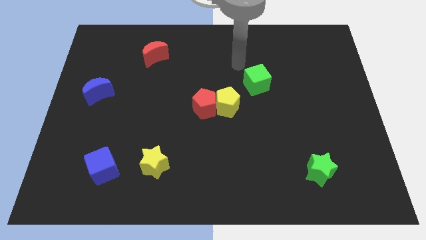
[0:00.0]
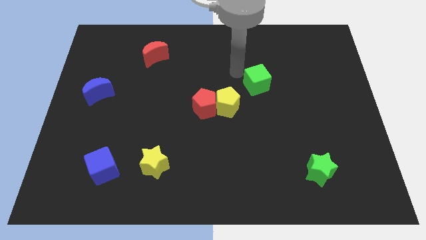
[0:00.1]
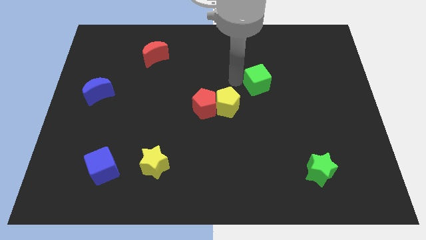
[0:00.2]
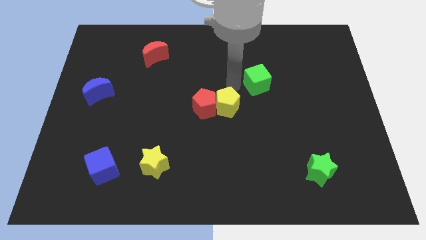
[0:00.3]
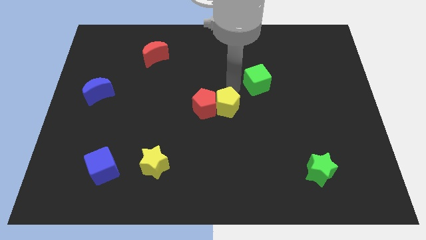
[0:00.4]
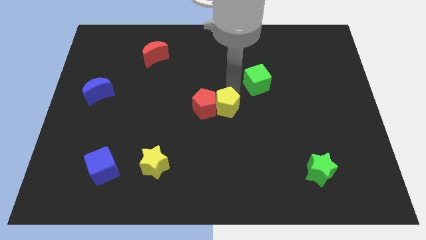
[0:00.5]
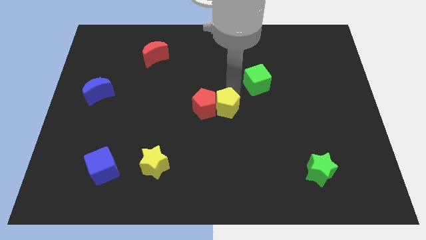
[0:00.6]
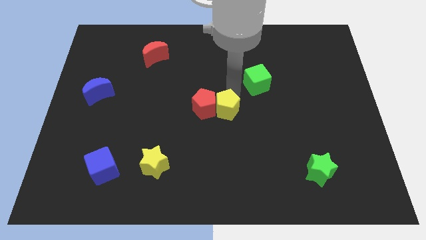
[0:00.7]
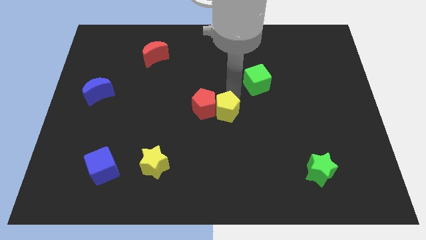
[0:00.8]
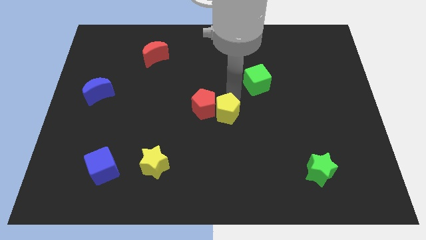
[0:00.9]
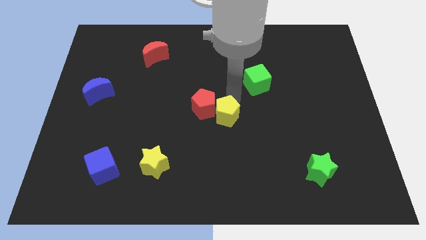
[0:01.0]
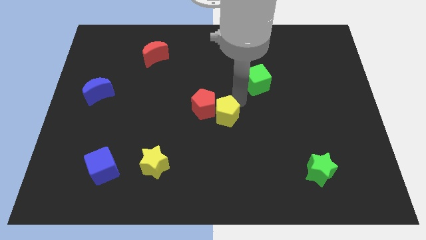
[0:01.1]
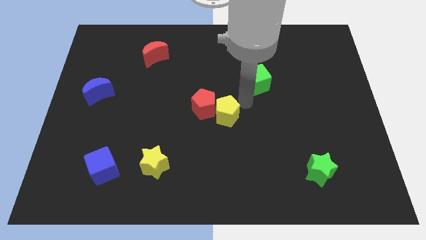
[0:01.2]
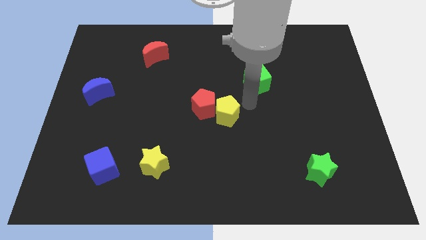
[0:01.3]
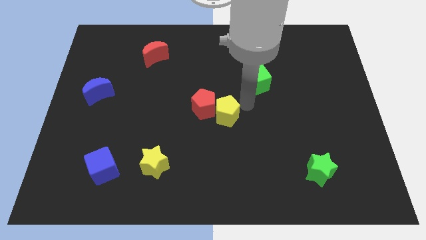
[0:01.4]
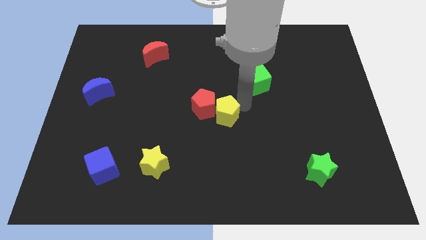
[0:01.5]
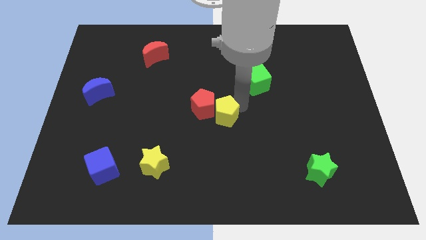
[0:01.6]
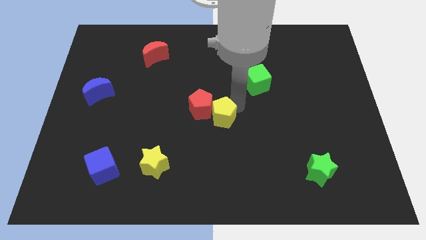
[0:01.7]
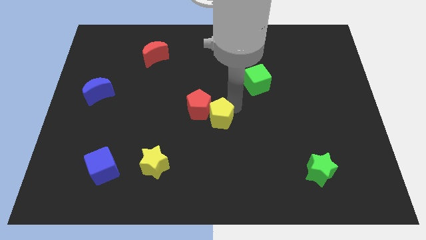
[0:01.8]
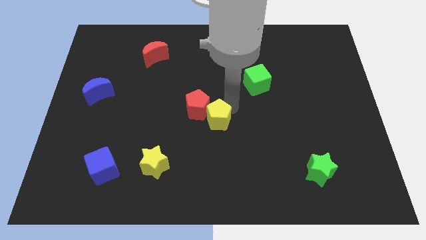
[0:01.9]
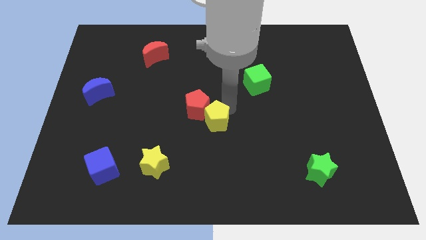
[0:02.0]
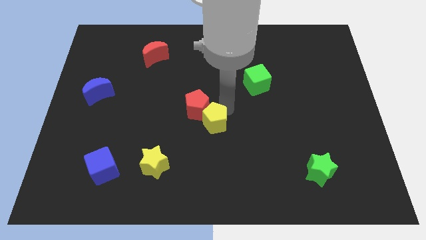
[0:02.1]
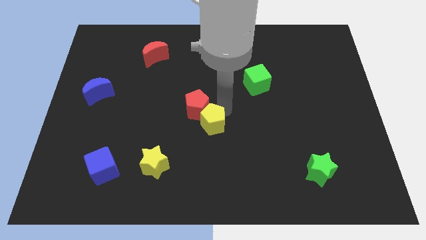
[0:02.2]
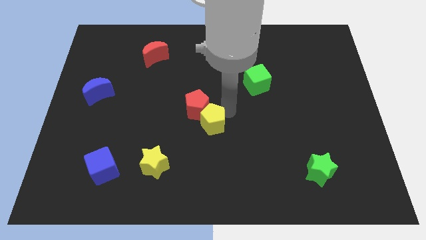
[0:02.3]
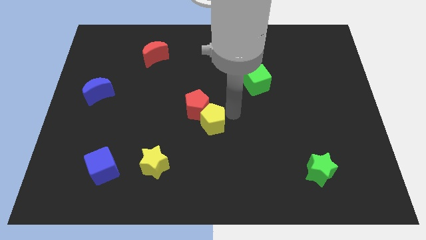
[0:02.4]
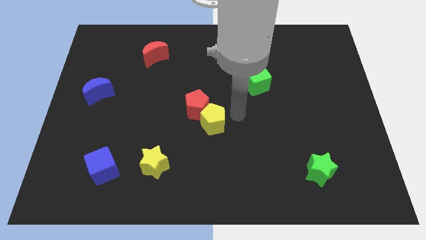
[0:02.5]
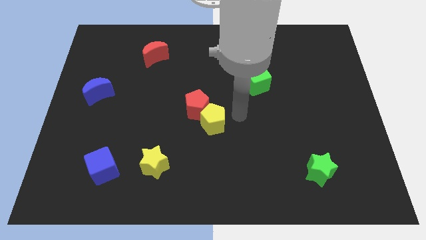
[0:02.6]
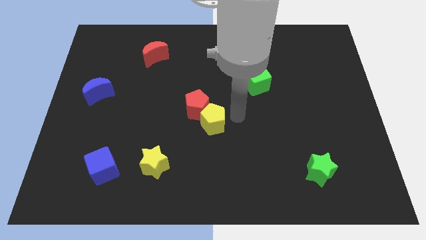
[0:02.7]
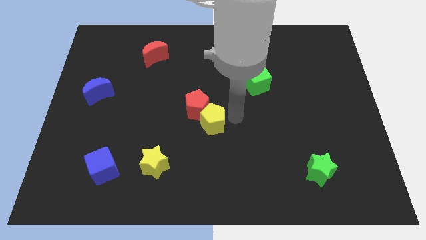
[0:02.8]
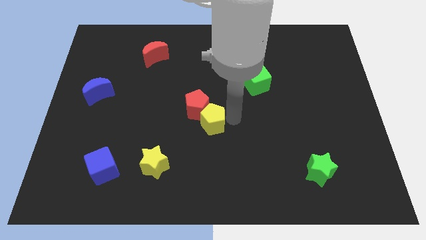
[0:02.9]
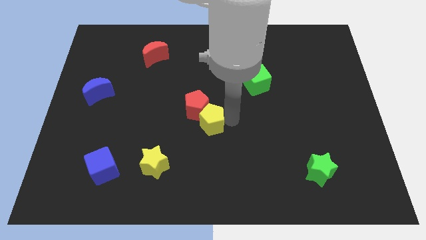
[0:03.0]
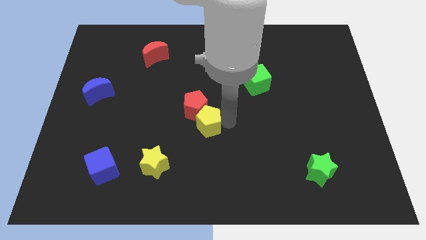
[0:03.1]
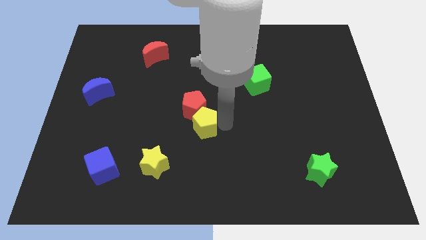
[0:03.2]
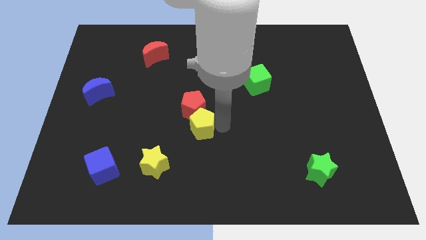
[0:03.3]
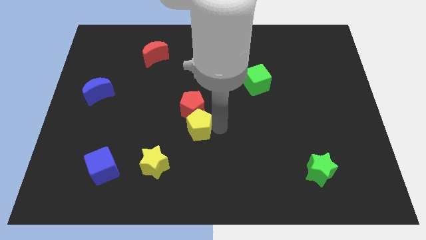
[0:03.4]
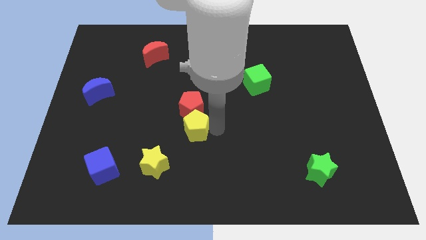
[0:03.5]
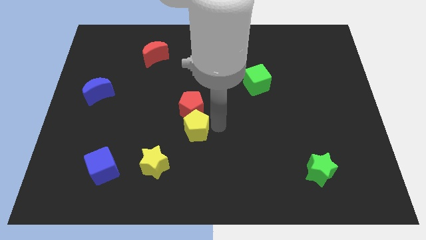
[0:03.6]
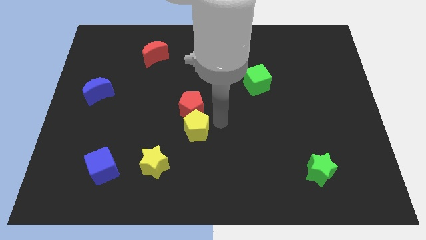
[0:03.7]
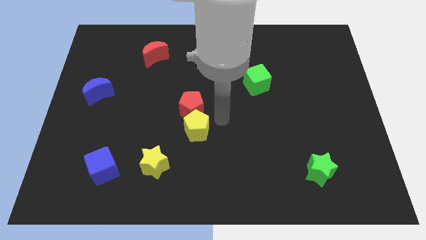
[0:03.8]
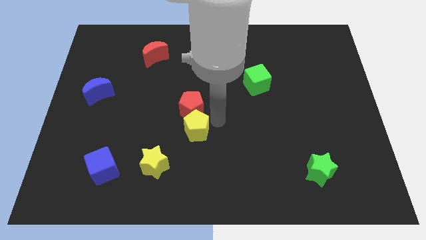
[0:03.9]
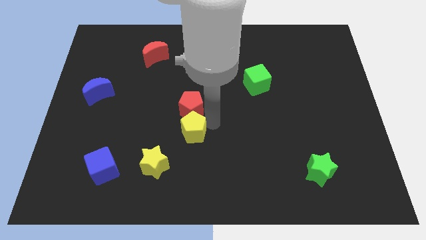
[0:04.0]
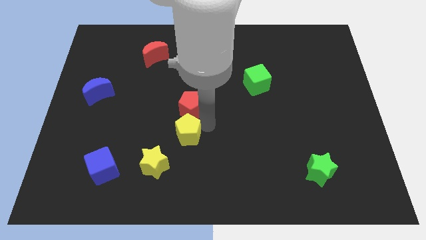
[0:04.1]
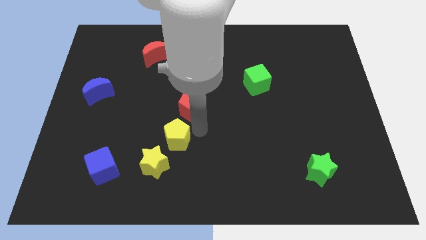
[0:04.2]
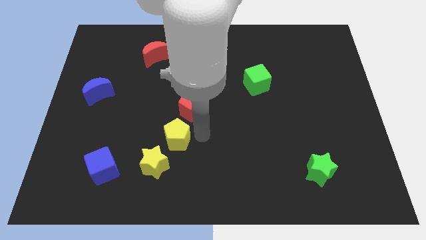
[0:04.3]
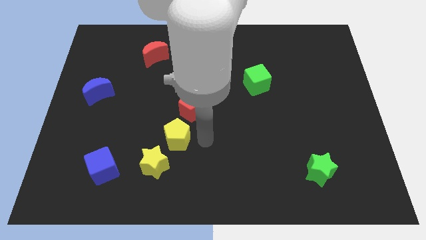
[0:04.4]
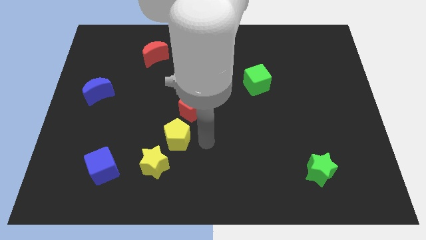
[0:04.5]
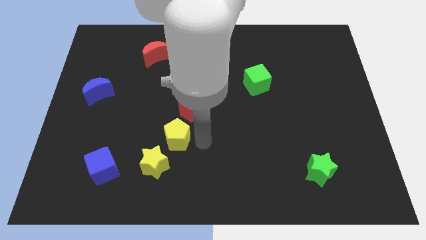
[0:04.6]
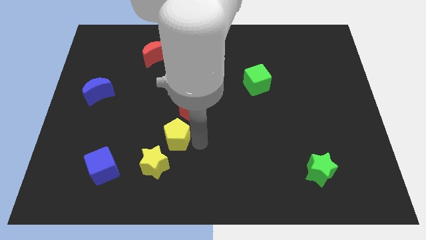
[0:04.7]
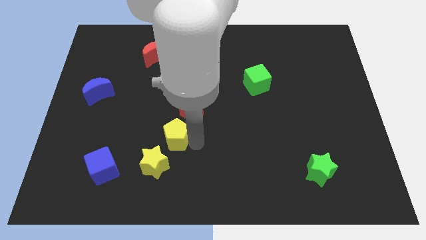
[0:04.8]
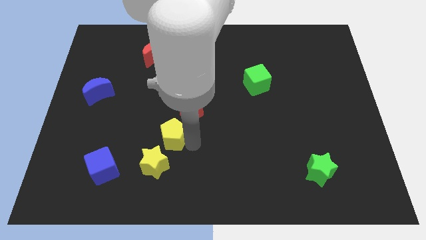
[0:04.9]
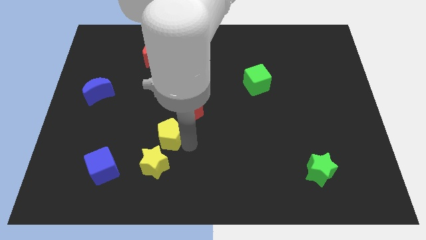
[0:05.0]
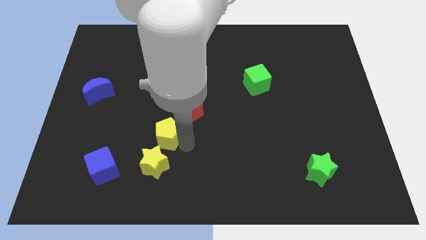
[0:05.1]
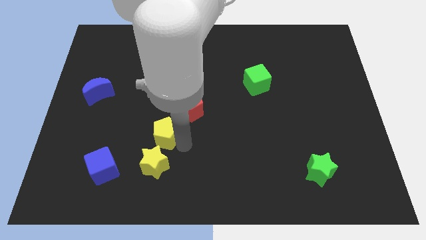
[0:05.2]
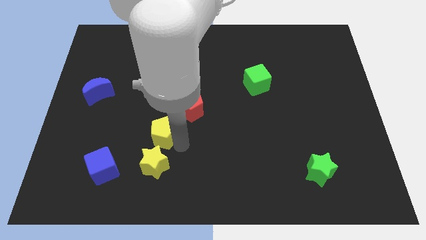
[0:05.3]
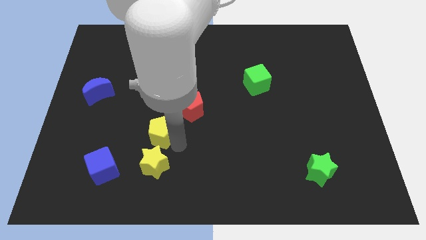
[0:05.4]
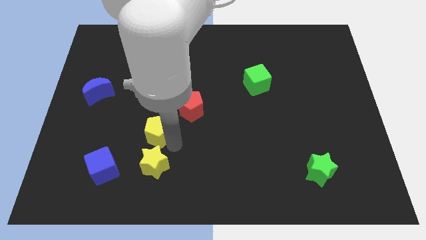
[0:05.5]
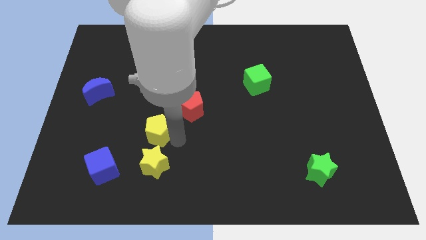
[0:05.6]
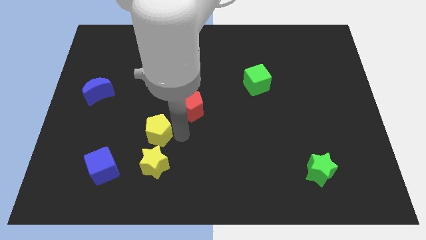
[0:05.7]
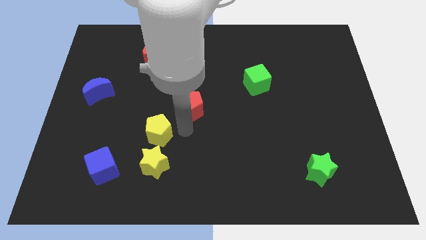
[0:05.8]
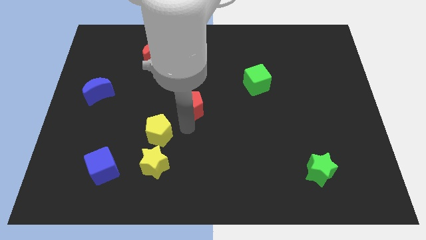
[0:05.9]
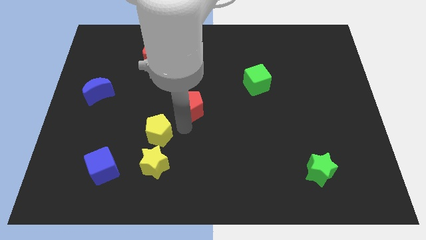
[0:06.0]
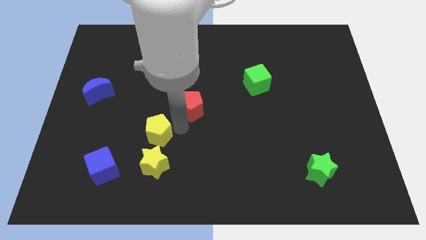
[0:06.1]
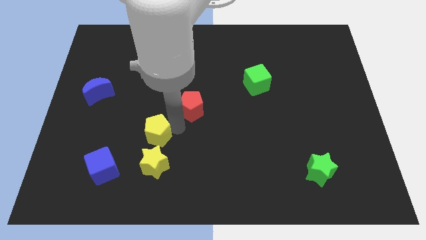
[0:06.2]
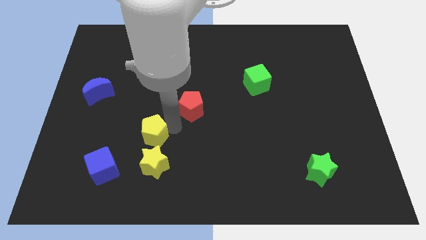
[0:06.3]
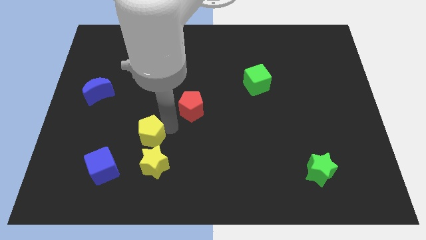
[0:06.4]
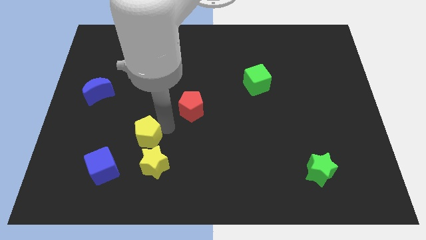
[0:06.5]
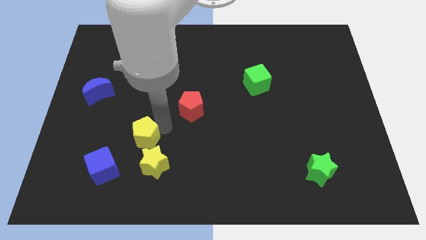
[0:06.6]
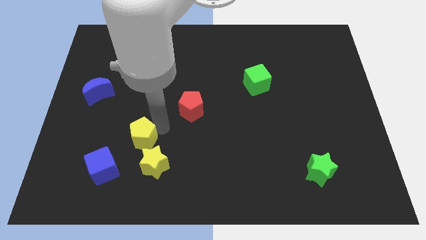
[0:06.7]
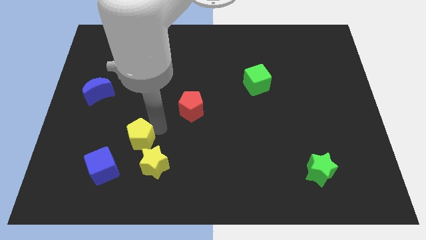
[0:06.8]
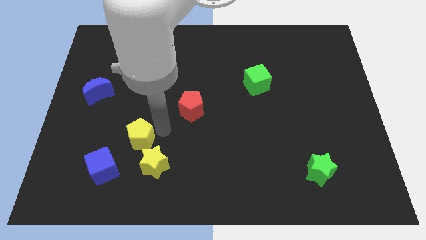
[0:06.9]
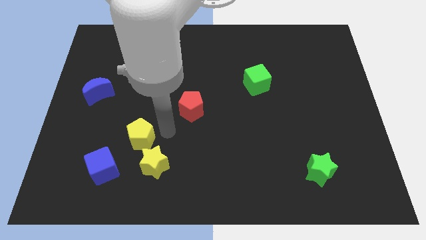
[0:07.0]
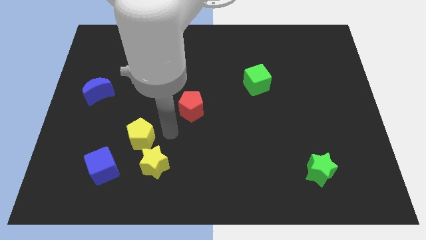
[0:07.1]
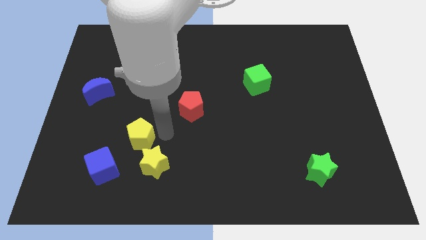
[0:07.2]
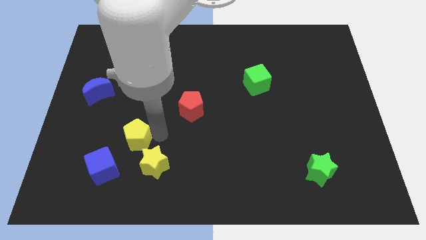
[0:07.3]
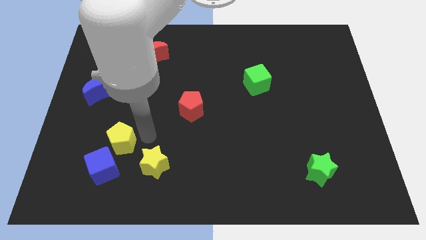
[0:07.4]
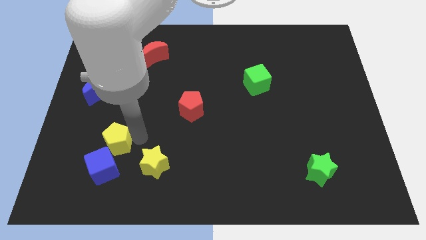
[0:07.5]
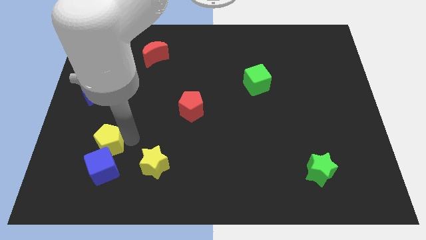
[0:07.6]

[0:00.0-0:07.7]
push the yellow pentagon to the left side of the yellow star

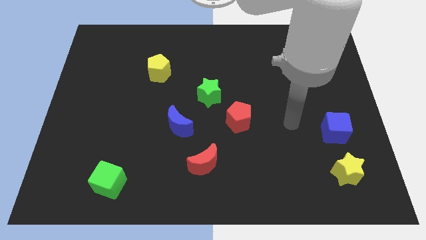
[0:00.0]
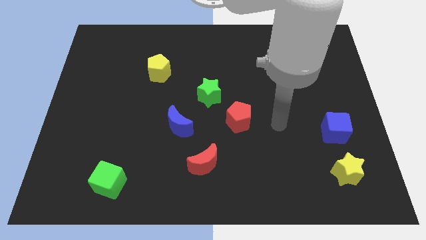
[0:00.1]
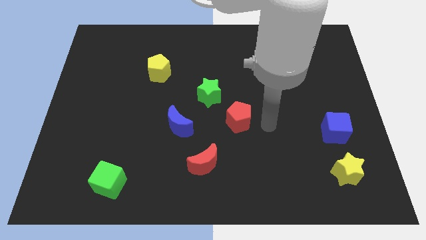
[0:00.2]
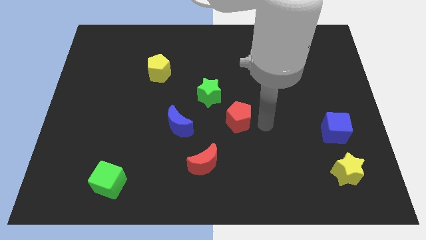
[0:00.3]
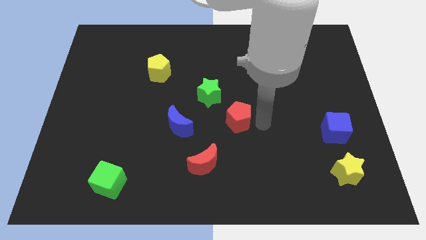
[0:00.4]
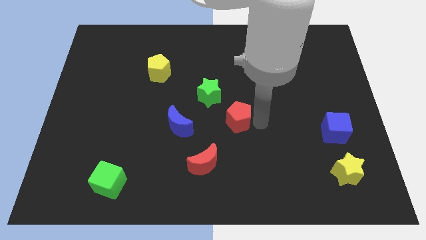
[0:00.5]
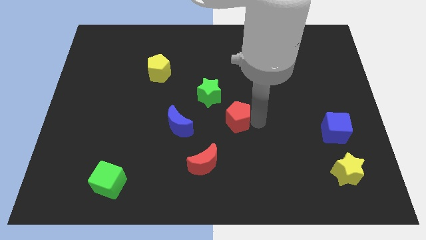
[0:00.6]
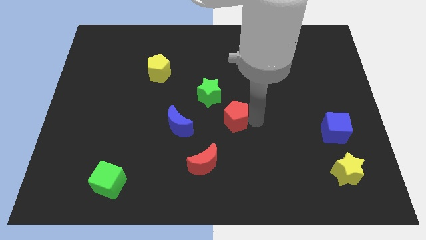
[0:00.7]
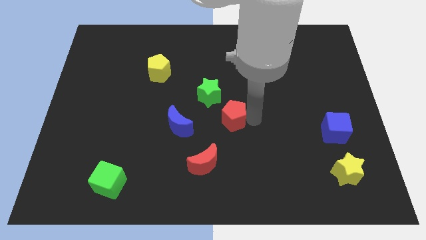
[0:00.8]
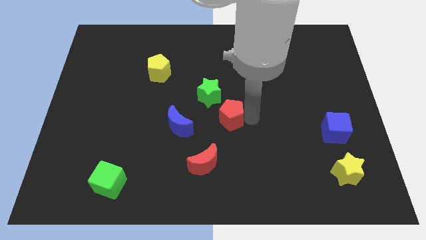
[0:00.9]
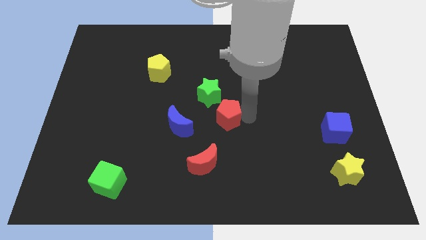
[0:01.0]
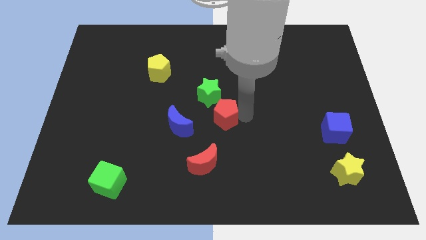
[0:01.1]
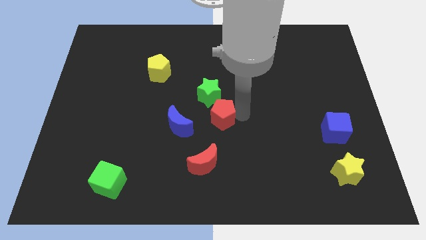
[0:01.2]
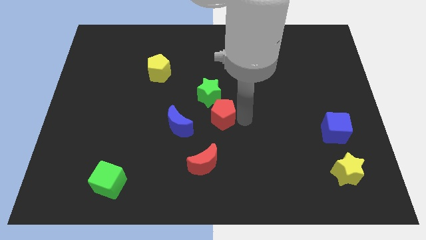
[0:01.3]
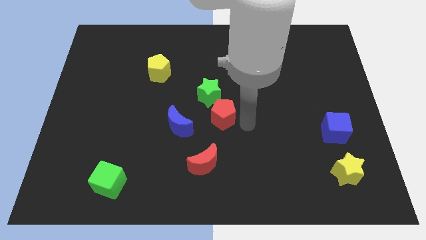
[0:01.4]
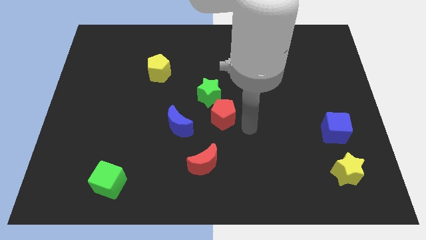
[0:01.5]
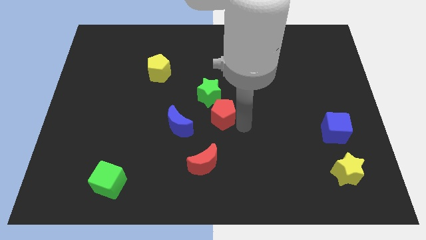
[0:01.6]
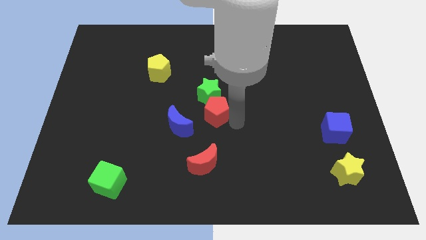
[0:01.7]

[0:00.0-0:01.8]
move the red pentagon to the top right of the blue moon
